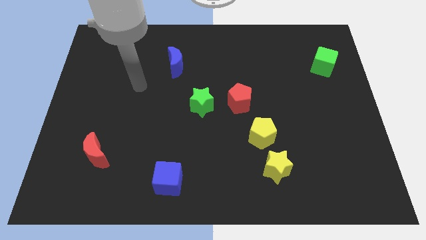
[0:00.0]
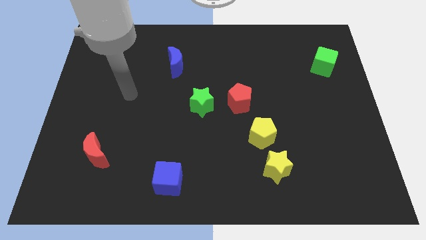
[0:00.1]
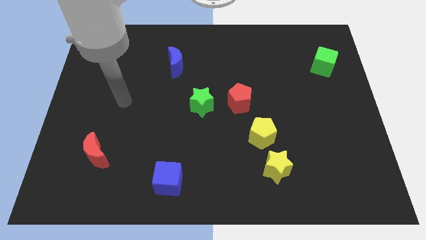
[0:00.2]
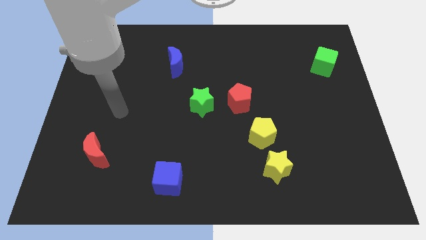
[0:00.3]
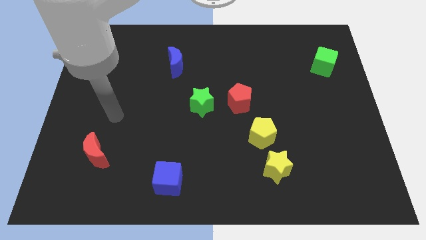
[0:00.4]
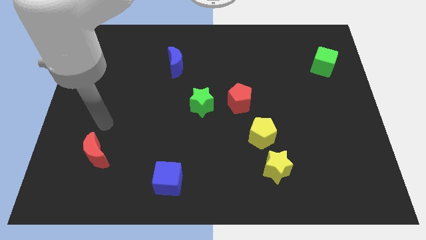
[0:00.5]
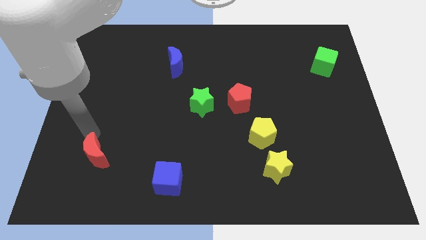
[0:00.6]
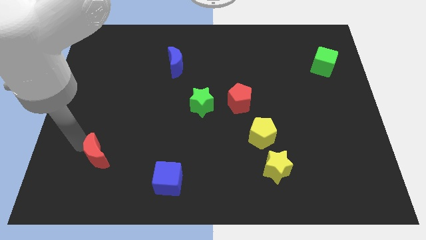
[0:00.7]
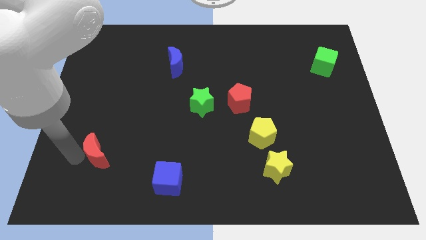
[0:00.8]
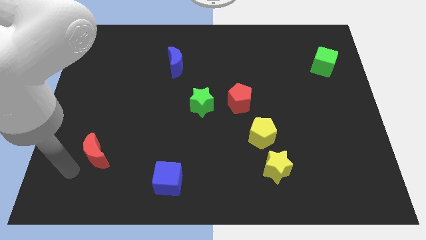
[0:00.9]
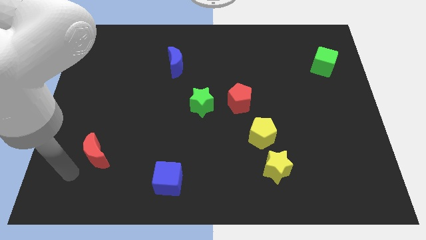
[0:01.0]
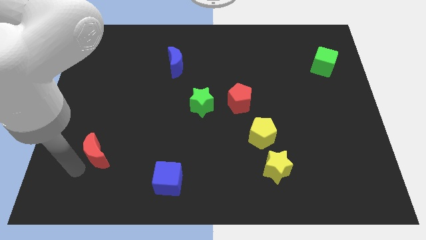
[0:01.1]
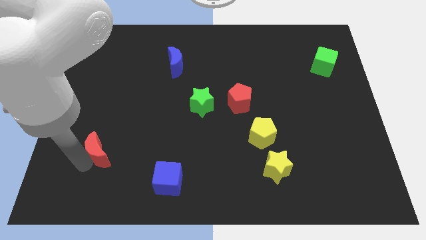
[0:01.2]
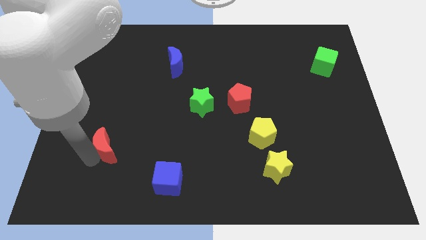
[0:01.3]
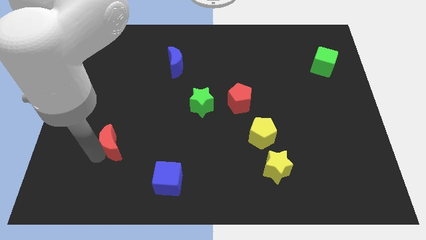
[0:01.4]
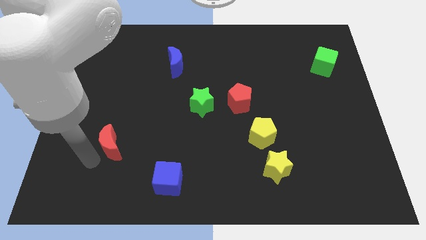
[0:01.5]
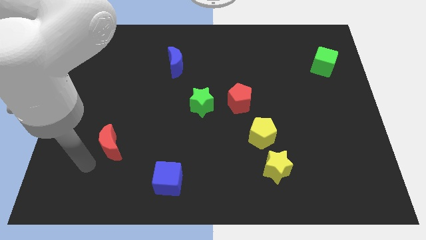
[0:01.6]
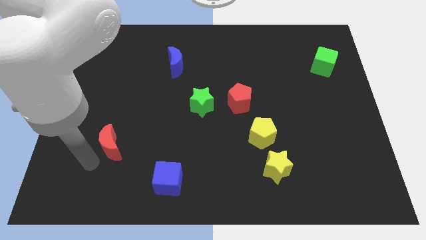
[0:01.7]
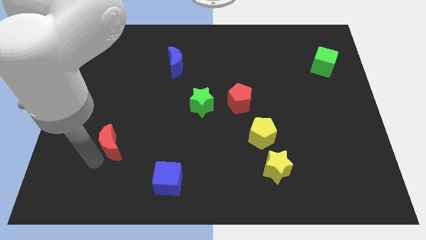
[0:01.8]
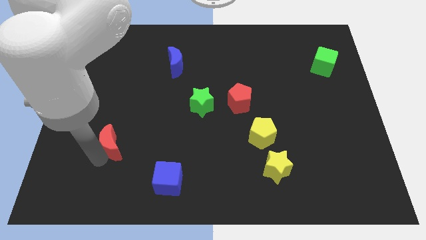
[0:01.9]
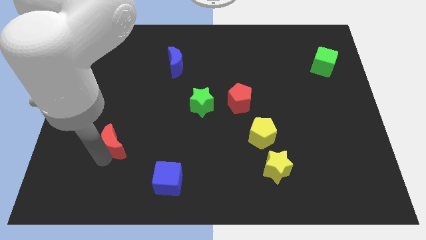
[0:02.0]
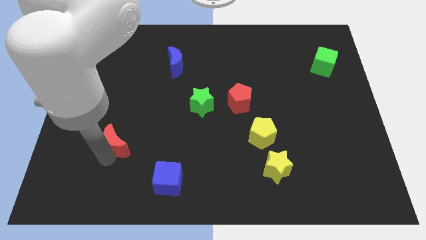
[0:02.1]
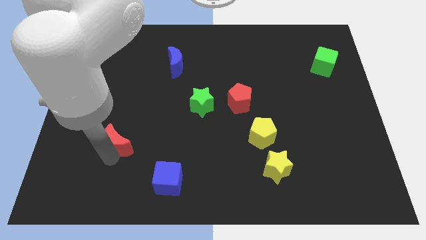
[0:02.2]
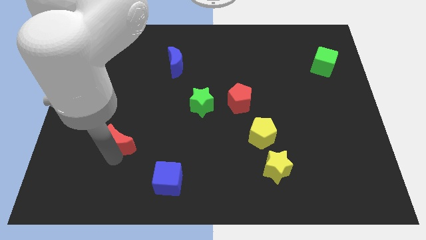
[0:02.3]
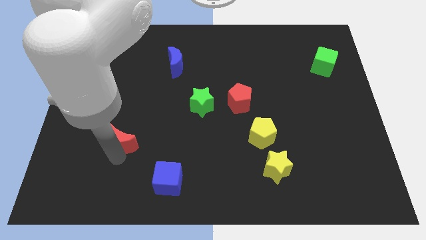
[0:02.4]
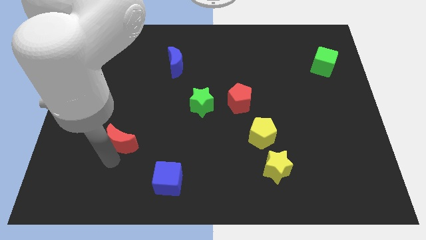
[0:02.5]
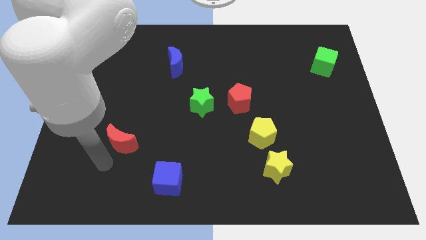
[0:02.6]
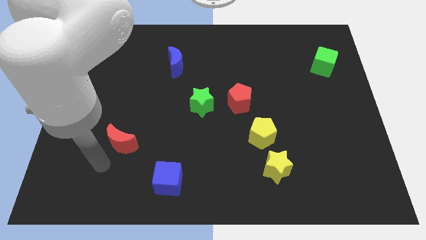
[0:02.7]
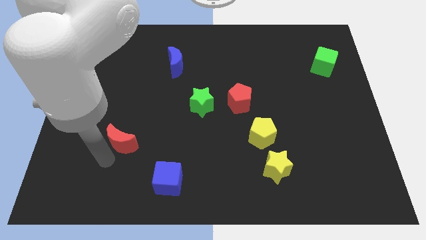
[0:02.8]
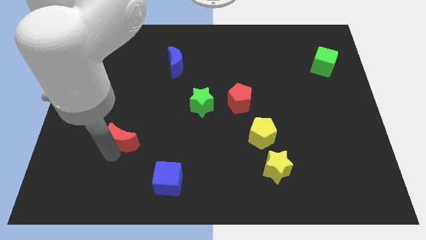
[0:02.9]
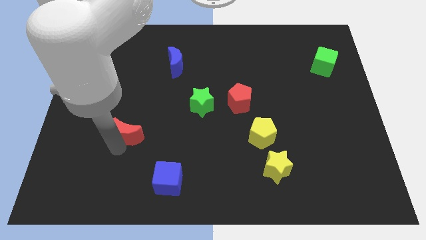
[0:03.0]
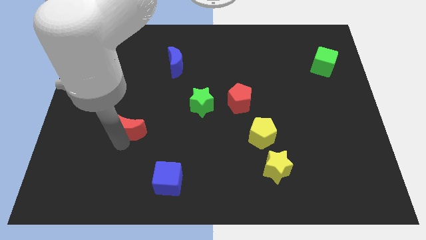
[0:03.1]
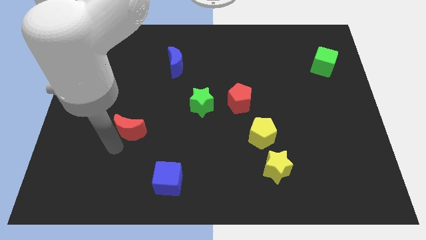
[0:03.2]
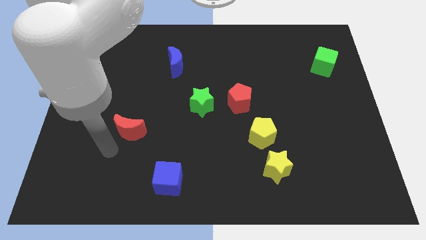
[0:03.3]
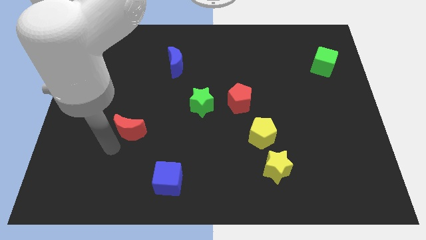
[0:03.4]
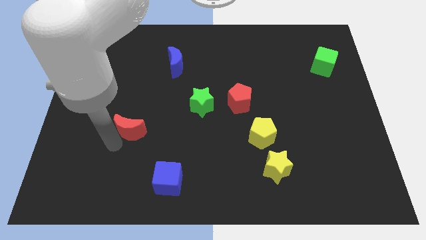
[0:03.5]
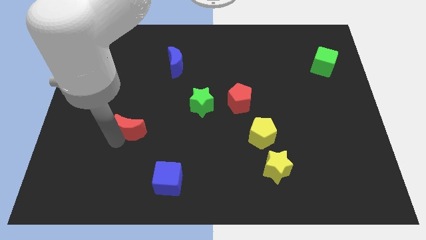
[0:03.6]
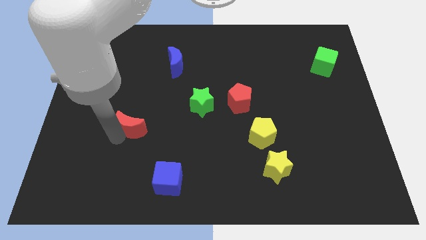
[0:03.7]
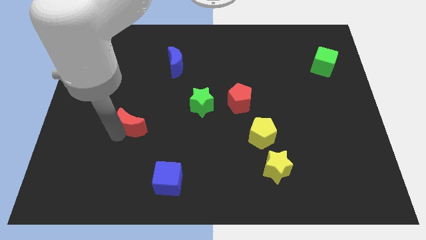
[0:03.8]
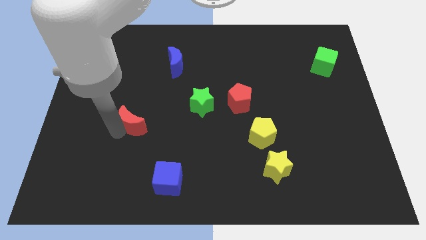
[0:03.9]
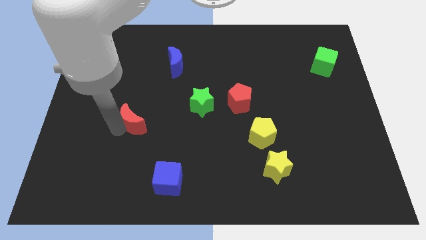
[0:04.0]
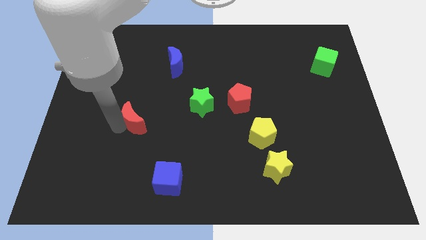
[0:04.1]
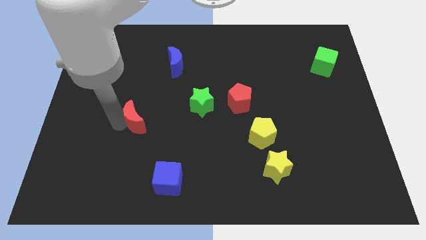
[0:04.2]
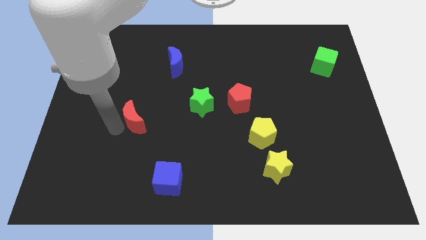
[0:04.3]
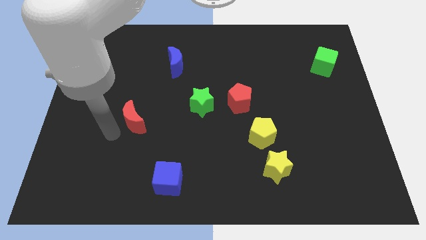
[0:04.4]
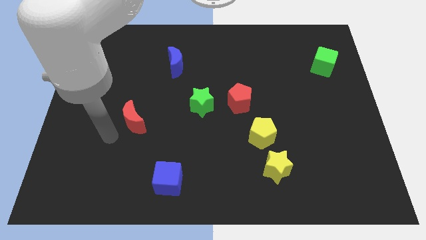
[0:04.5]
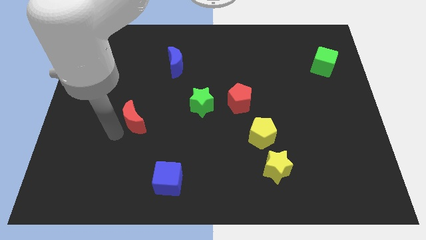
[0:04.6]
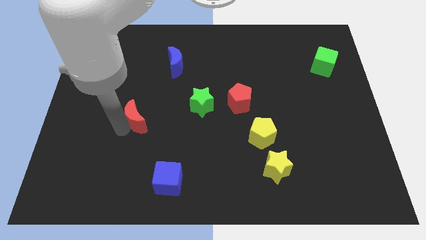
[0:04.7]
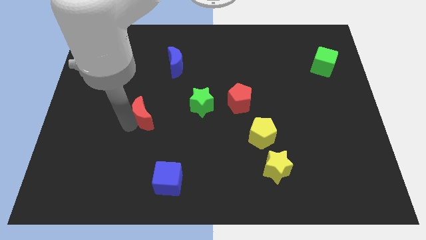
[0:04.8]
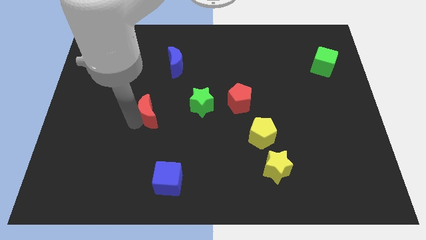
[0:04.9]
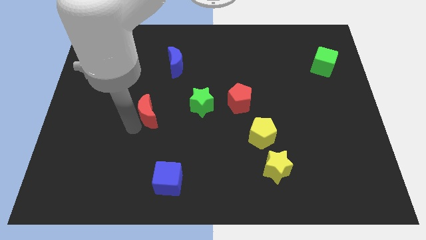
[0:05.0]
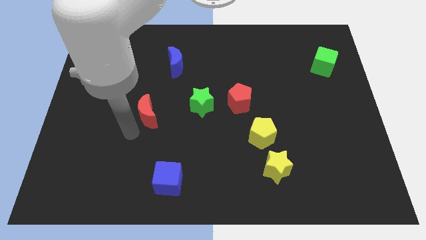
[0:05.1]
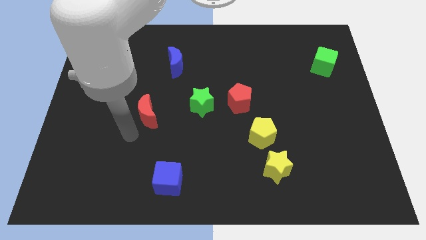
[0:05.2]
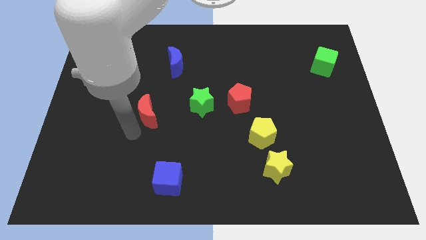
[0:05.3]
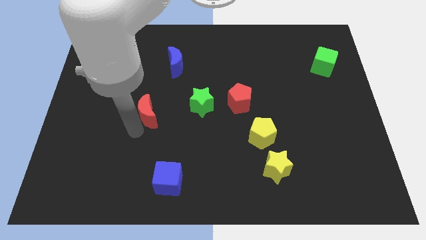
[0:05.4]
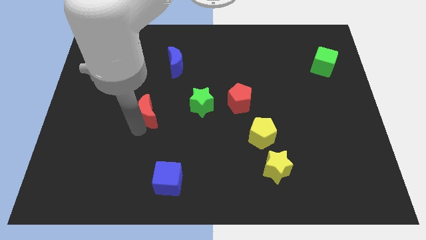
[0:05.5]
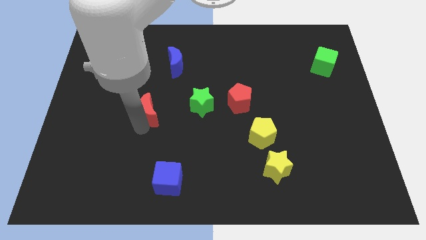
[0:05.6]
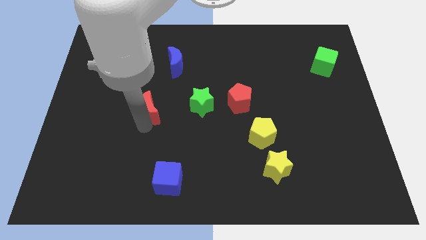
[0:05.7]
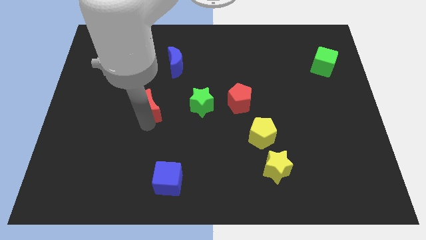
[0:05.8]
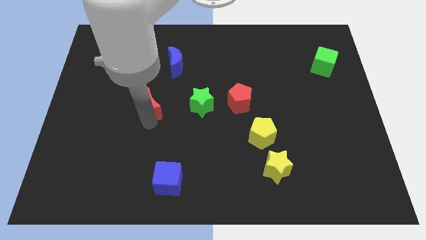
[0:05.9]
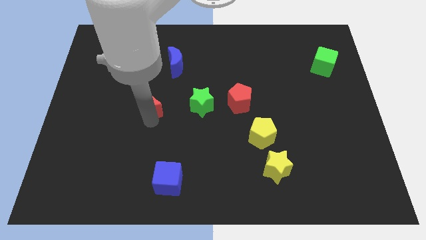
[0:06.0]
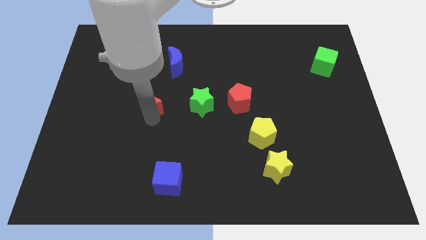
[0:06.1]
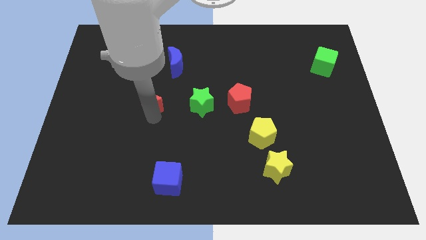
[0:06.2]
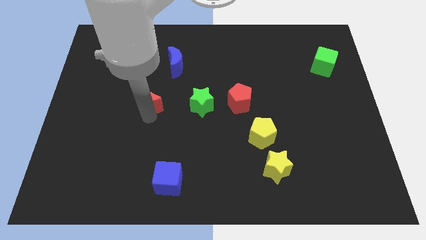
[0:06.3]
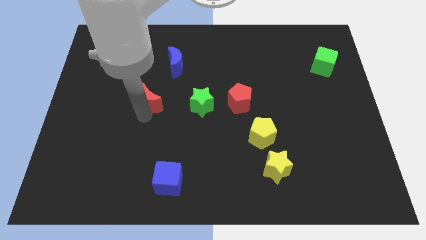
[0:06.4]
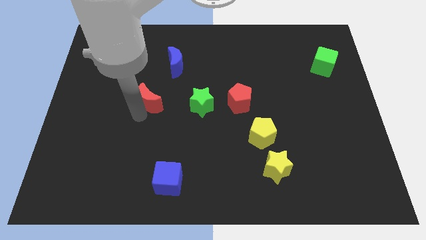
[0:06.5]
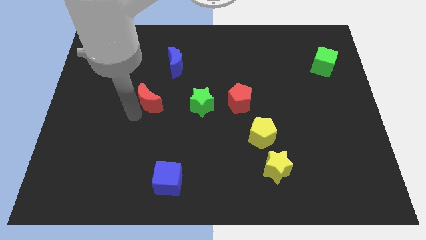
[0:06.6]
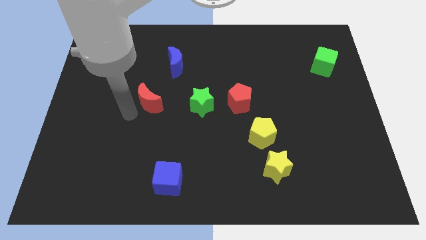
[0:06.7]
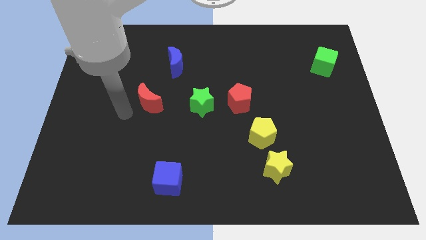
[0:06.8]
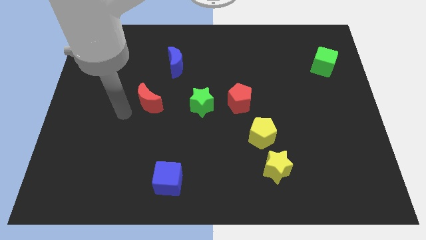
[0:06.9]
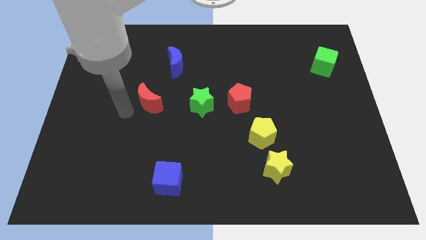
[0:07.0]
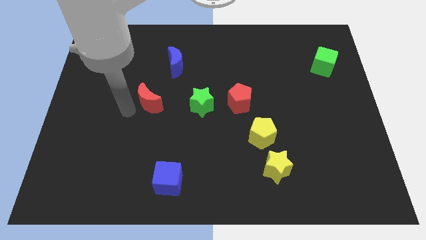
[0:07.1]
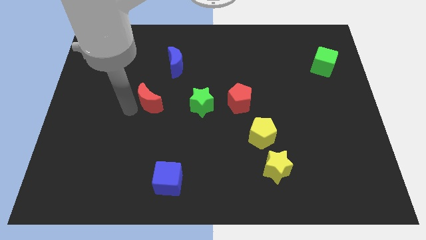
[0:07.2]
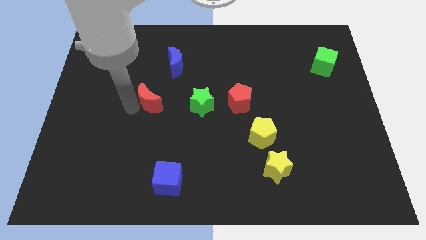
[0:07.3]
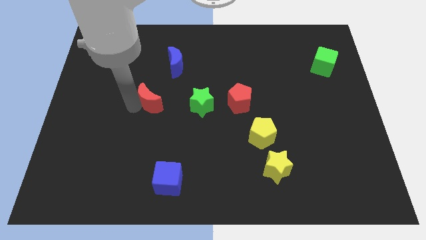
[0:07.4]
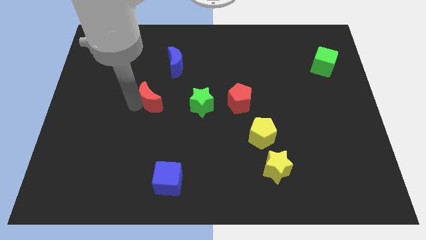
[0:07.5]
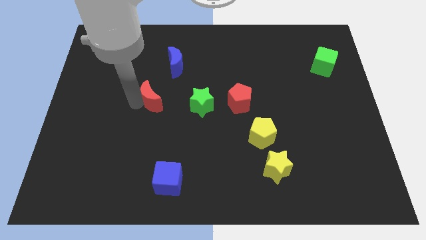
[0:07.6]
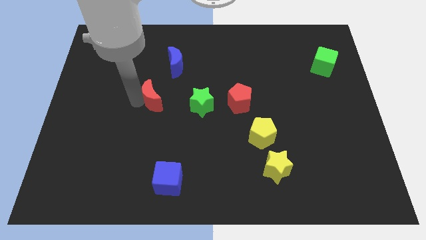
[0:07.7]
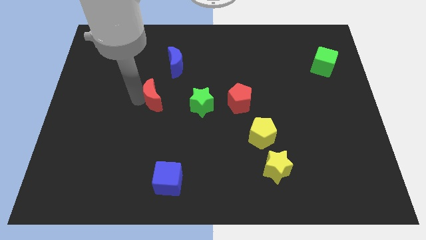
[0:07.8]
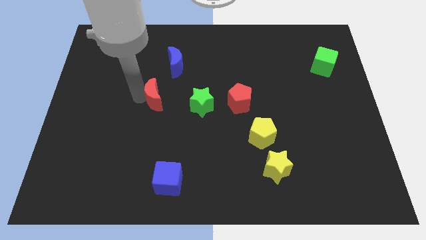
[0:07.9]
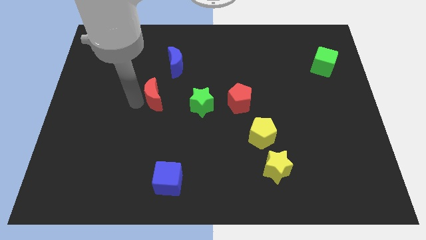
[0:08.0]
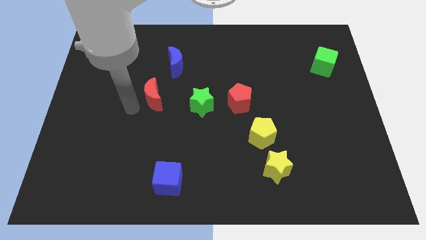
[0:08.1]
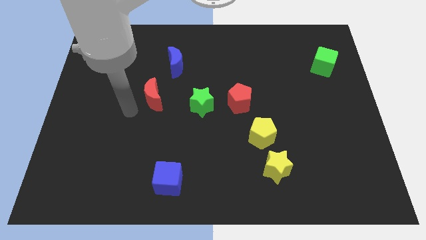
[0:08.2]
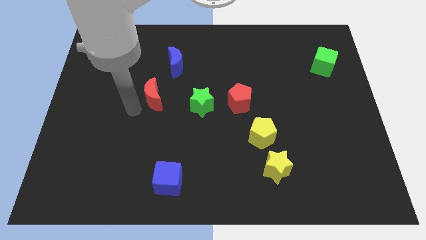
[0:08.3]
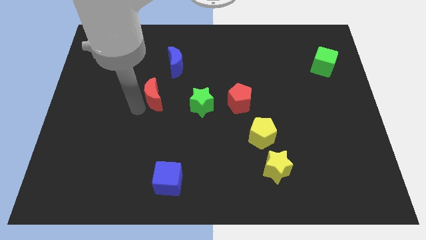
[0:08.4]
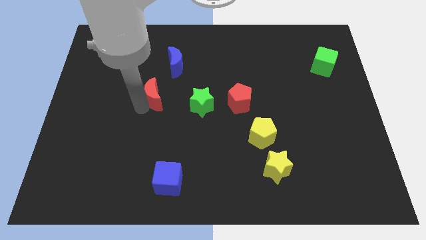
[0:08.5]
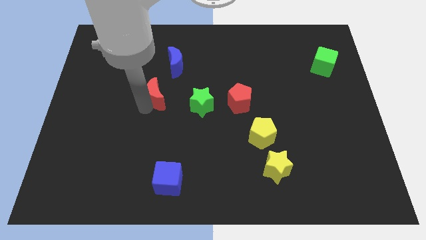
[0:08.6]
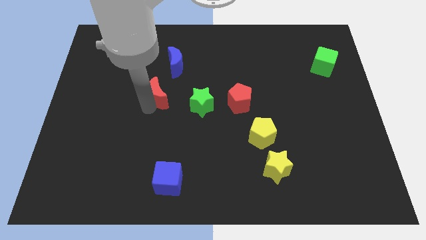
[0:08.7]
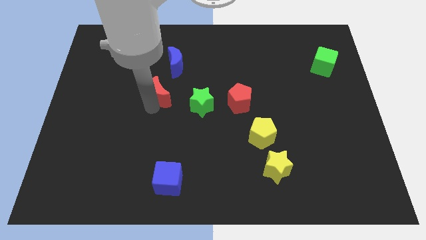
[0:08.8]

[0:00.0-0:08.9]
move the red moon up and to the right
